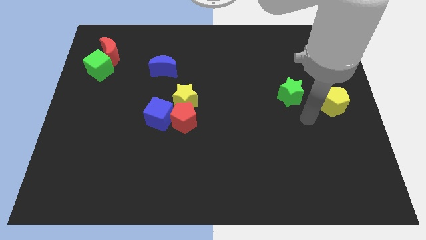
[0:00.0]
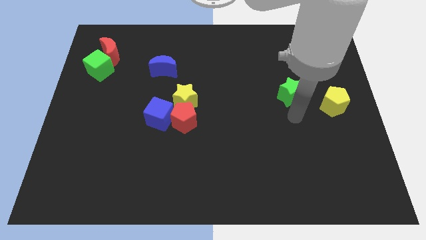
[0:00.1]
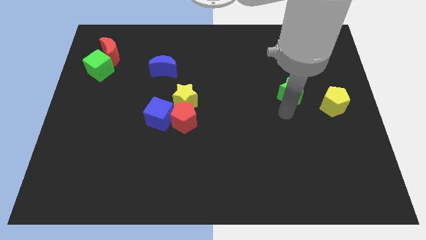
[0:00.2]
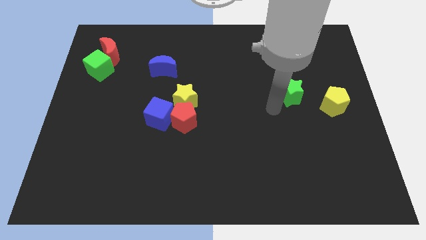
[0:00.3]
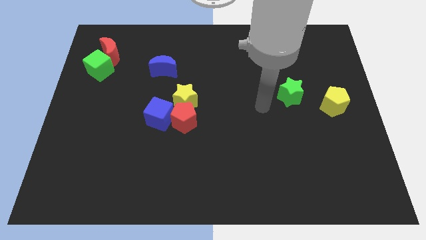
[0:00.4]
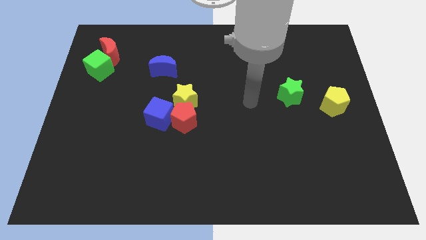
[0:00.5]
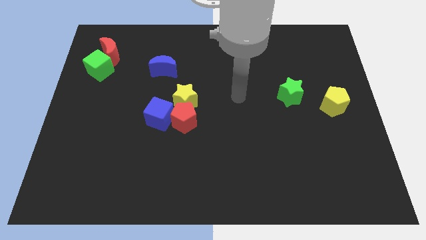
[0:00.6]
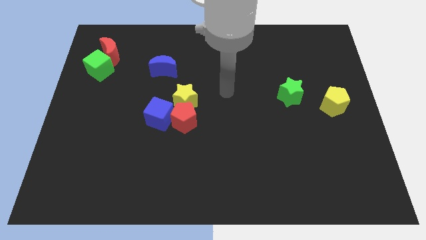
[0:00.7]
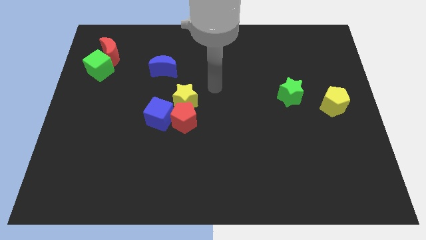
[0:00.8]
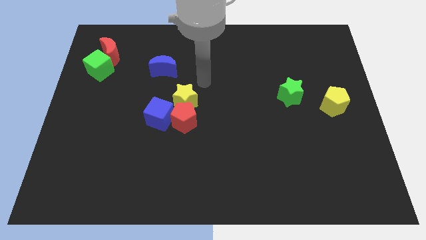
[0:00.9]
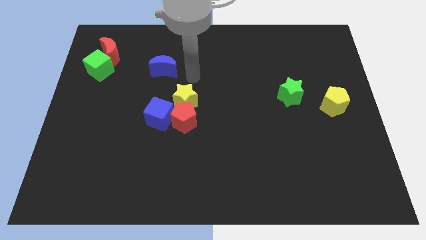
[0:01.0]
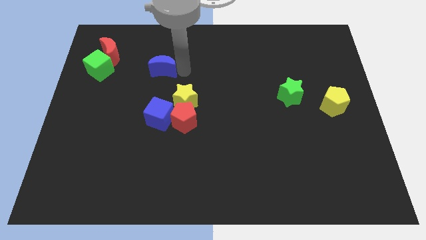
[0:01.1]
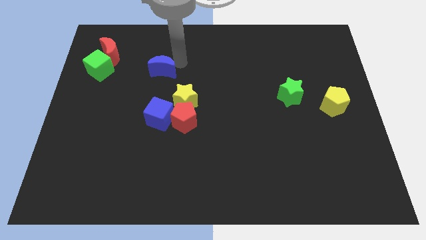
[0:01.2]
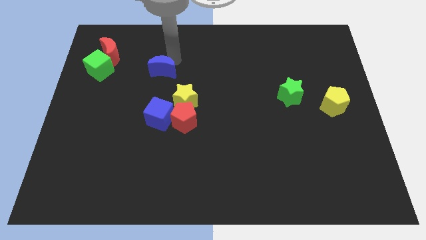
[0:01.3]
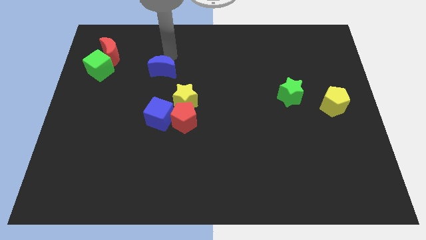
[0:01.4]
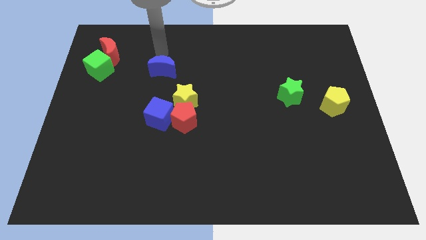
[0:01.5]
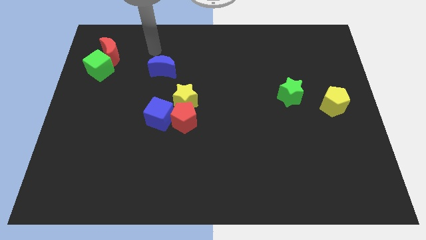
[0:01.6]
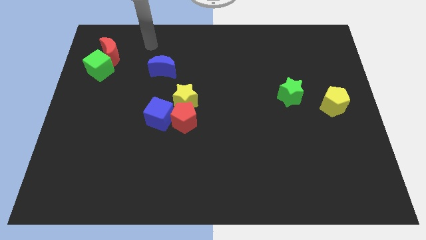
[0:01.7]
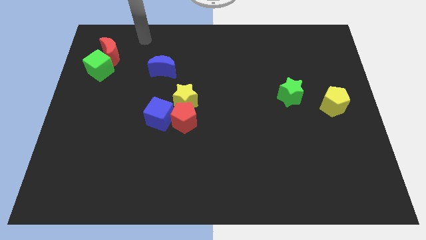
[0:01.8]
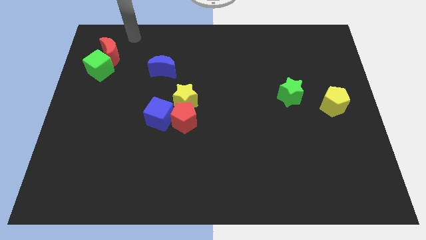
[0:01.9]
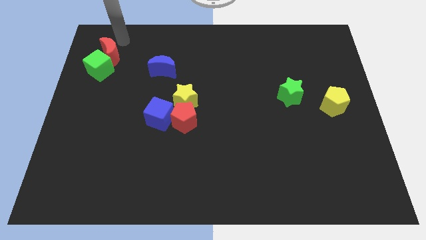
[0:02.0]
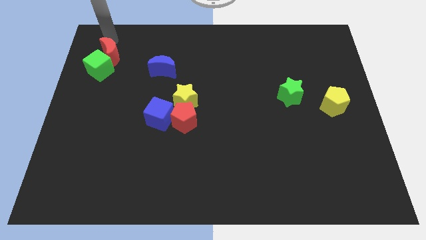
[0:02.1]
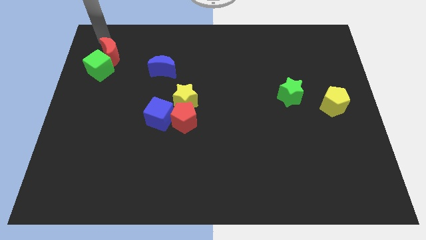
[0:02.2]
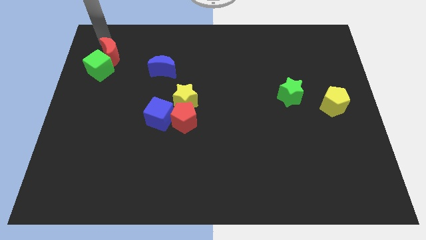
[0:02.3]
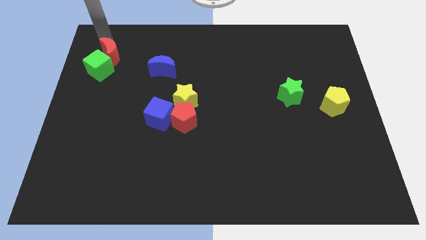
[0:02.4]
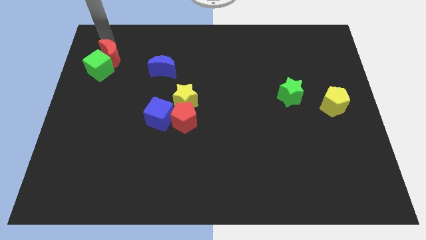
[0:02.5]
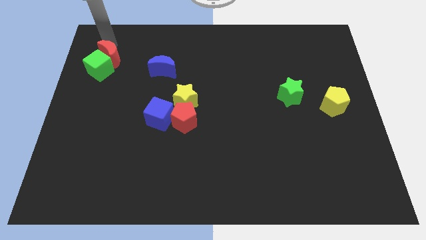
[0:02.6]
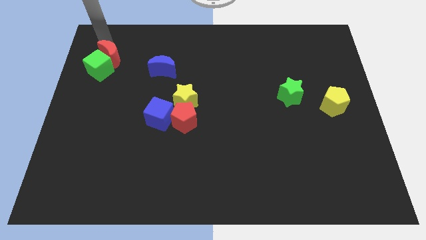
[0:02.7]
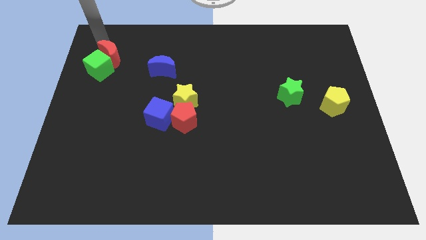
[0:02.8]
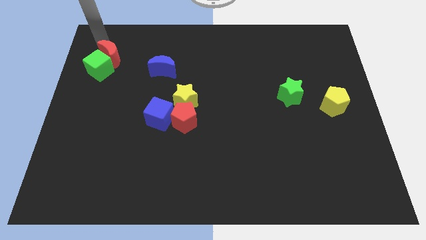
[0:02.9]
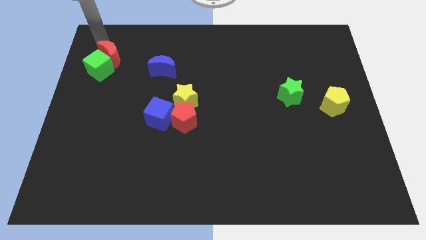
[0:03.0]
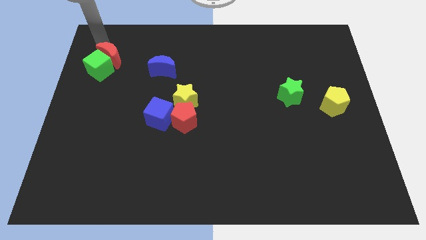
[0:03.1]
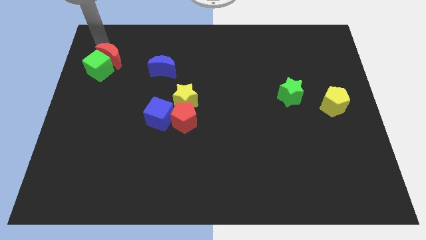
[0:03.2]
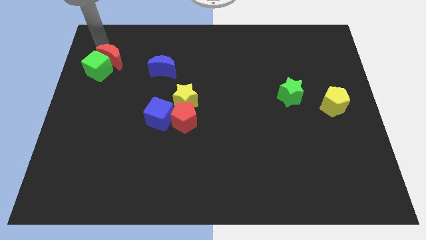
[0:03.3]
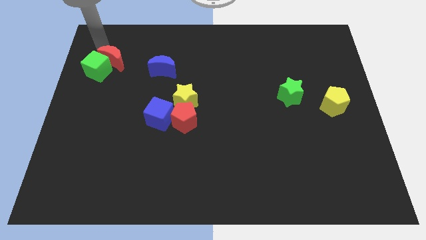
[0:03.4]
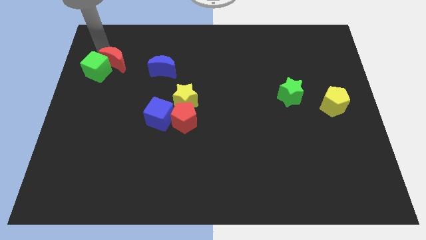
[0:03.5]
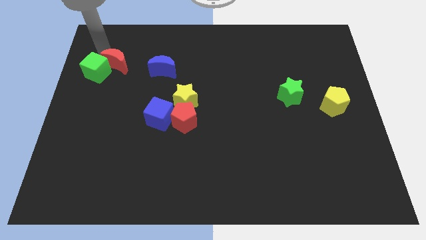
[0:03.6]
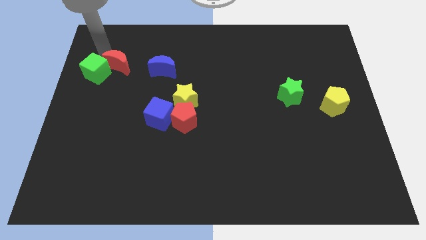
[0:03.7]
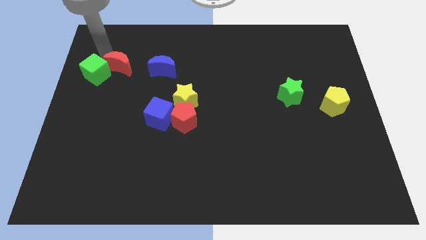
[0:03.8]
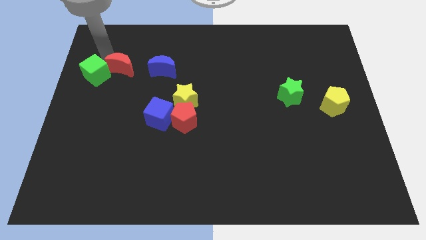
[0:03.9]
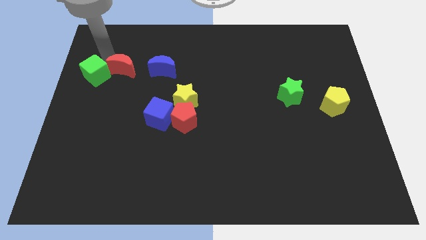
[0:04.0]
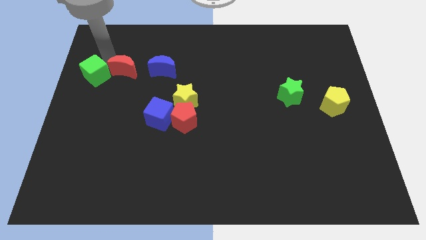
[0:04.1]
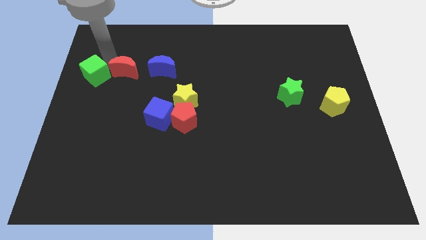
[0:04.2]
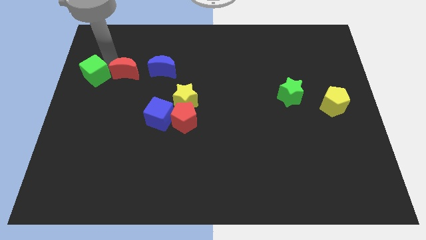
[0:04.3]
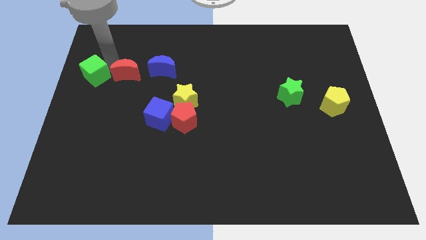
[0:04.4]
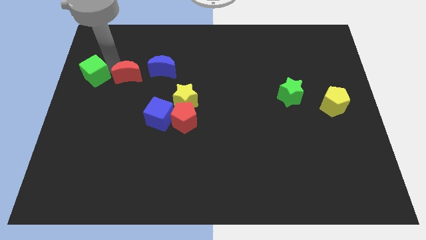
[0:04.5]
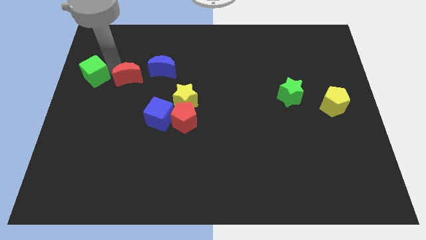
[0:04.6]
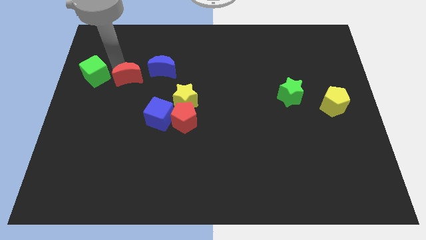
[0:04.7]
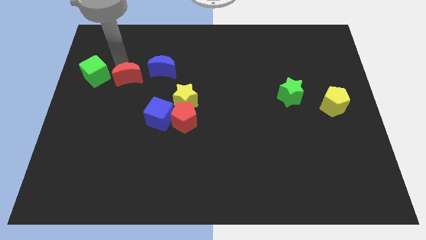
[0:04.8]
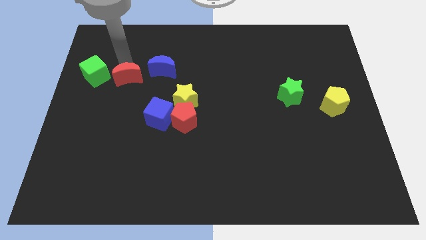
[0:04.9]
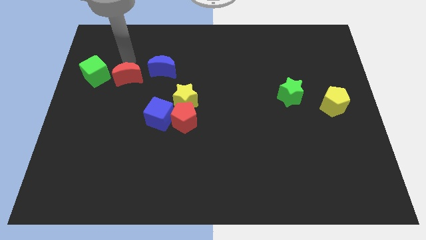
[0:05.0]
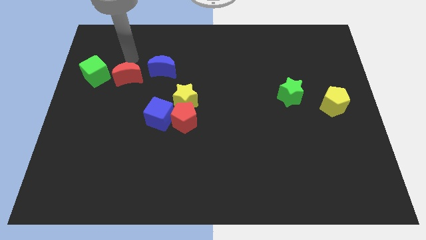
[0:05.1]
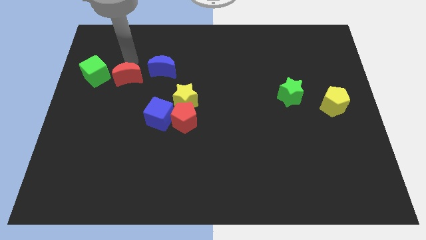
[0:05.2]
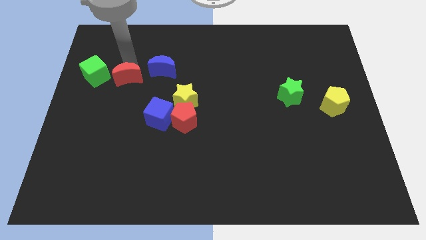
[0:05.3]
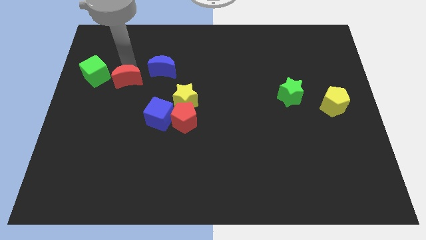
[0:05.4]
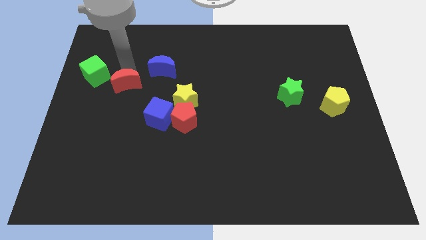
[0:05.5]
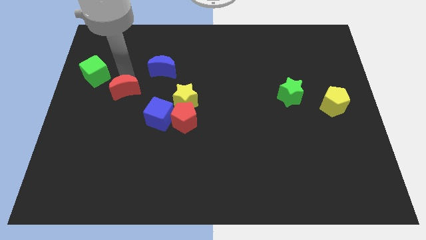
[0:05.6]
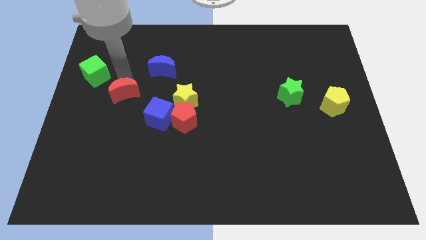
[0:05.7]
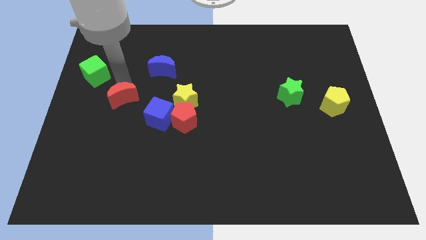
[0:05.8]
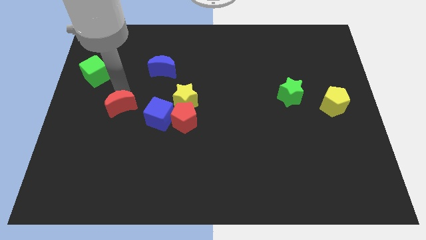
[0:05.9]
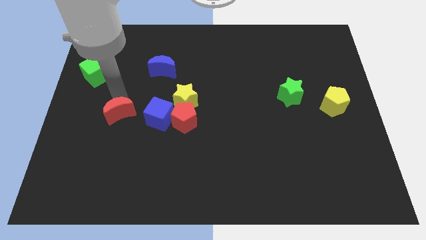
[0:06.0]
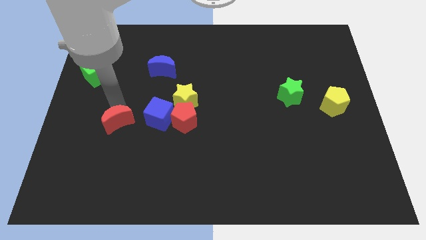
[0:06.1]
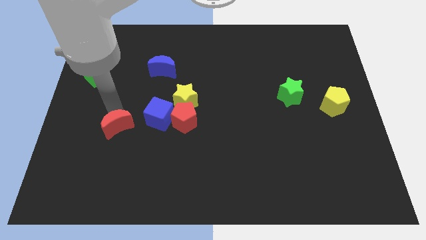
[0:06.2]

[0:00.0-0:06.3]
move the red moon to the bottom left of the blue cube

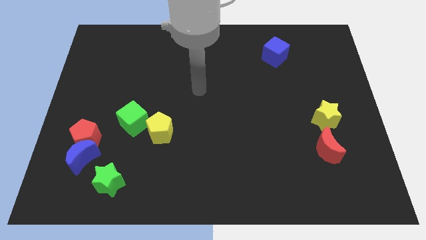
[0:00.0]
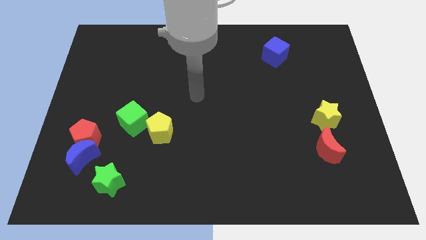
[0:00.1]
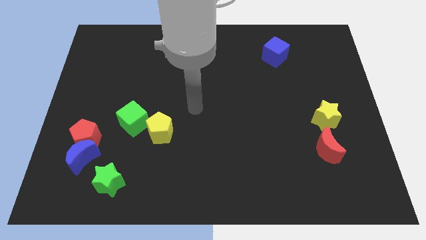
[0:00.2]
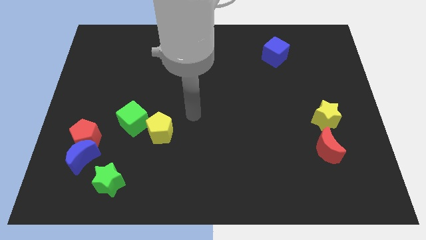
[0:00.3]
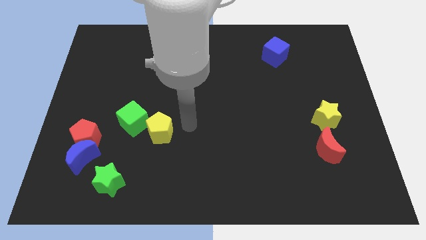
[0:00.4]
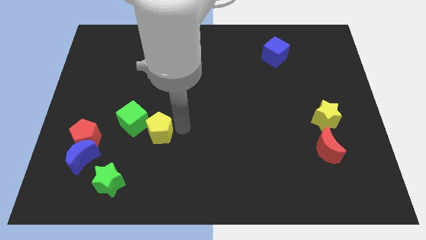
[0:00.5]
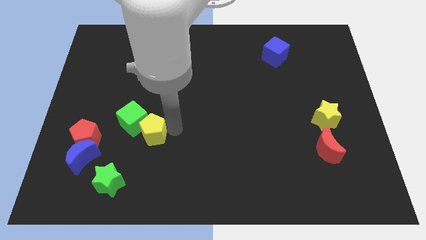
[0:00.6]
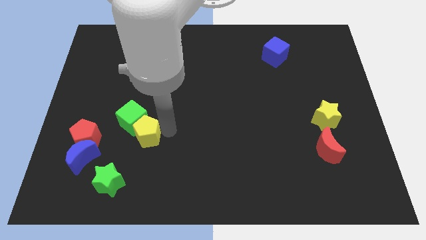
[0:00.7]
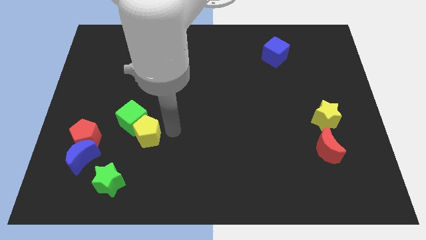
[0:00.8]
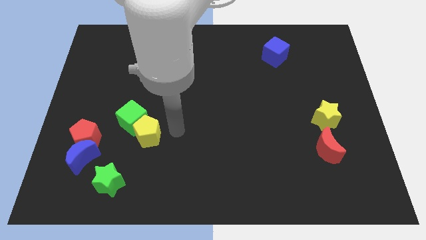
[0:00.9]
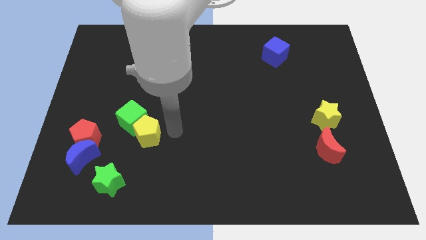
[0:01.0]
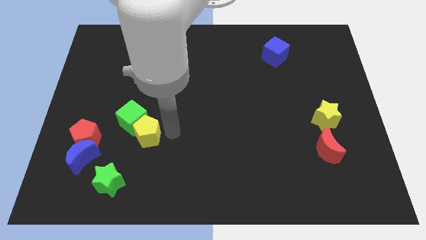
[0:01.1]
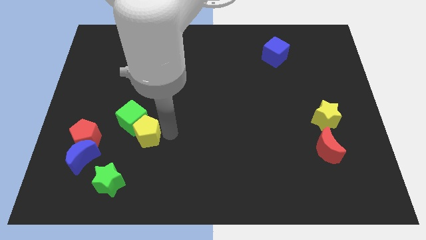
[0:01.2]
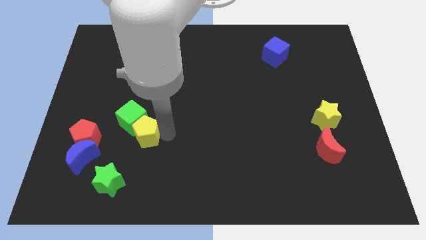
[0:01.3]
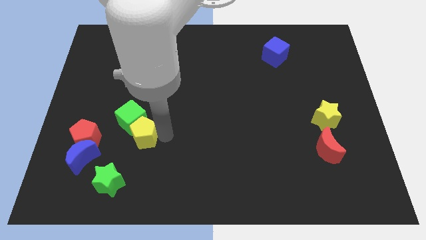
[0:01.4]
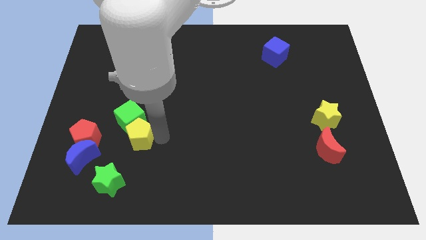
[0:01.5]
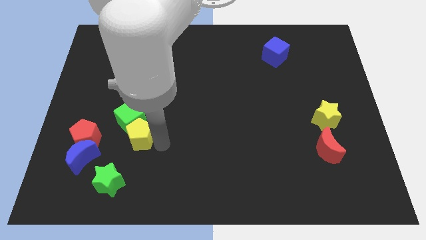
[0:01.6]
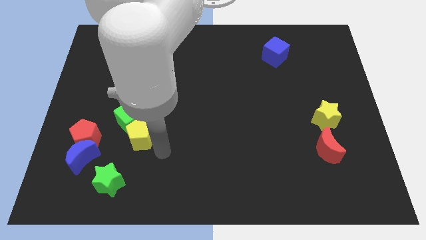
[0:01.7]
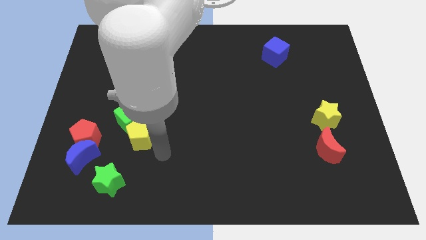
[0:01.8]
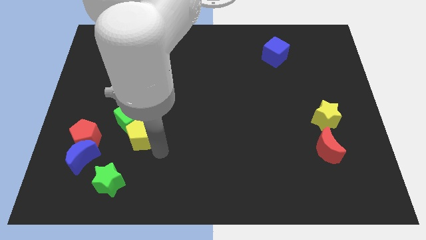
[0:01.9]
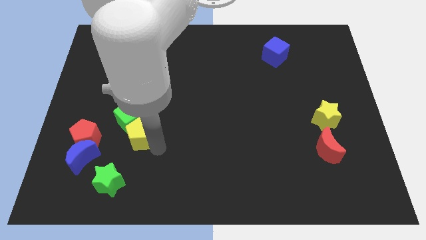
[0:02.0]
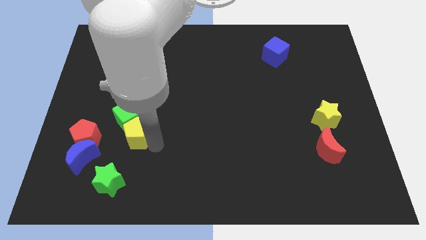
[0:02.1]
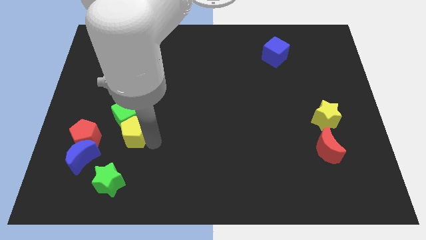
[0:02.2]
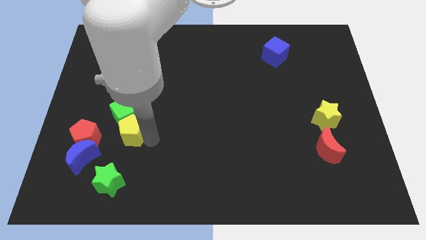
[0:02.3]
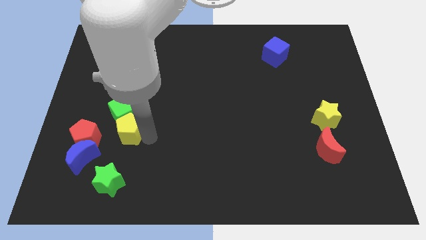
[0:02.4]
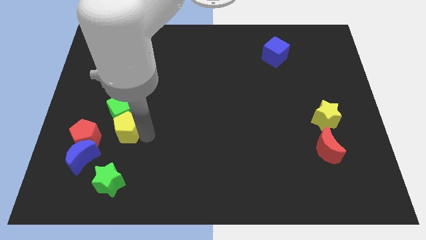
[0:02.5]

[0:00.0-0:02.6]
put the yellow pentagon to the top right of the red pentagon
